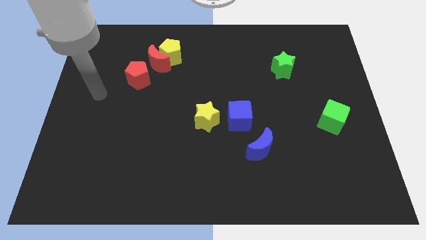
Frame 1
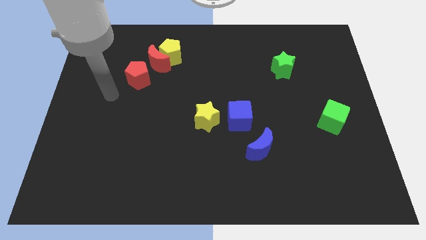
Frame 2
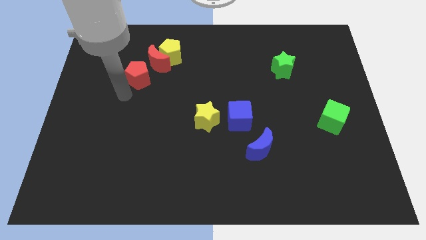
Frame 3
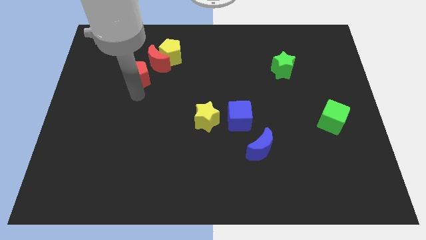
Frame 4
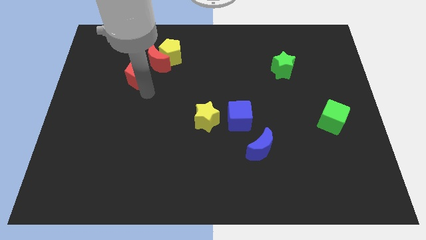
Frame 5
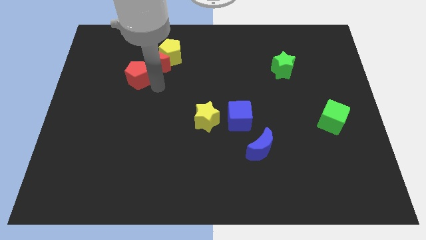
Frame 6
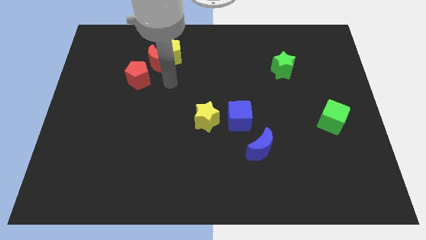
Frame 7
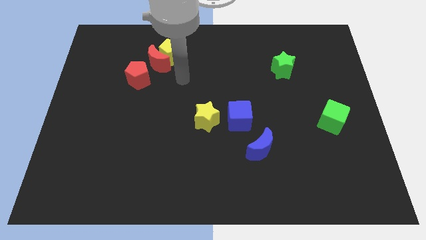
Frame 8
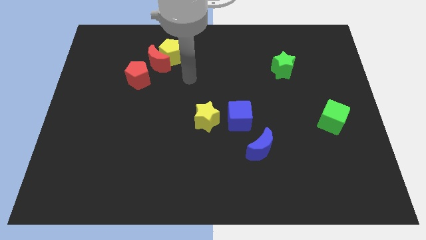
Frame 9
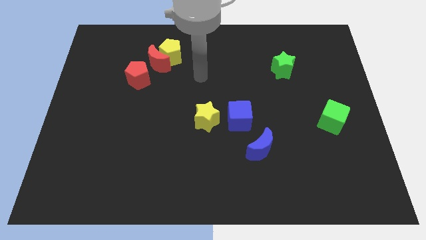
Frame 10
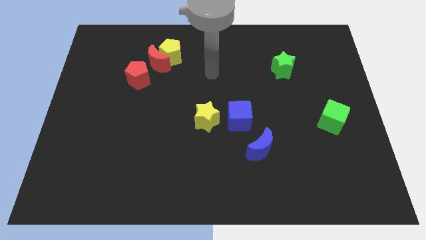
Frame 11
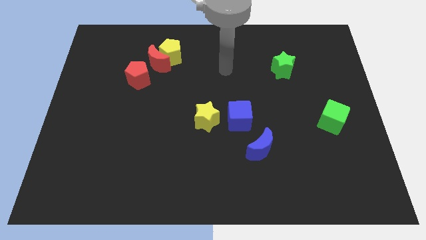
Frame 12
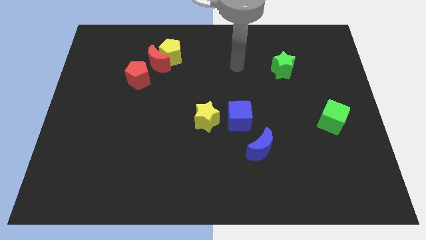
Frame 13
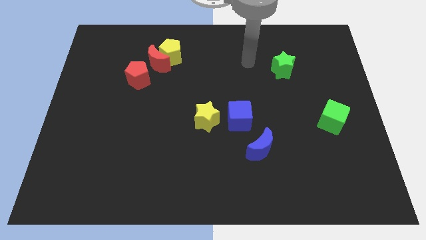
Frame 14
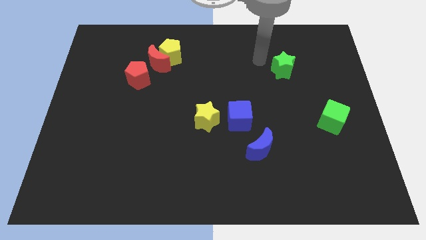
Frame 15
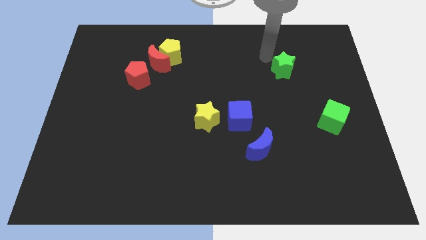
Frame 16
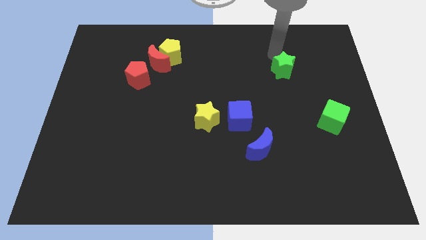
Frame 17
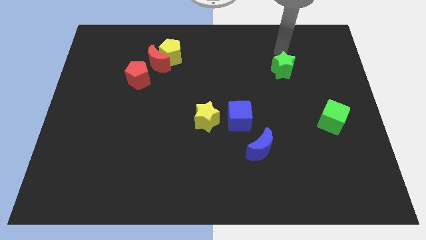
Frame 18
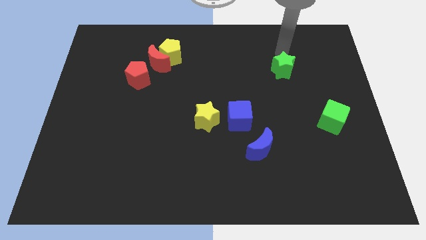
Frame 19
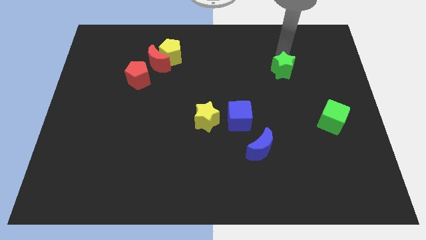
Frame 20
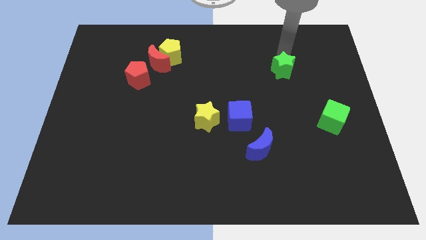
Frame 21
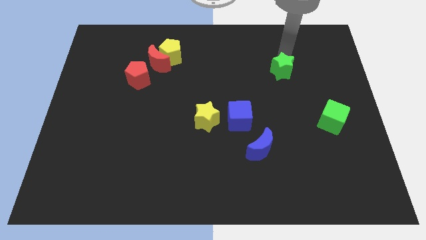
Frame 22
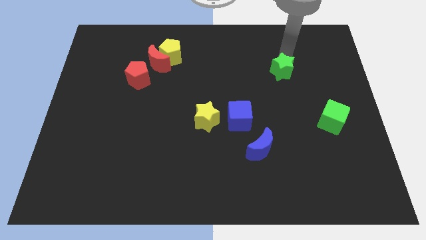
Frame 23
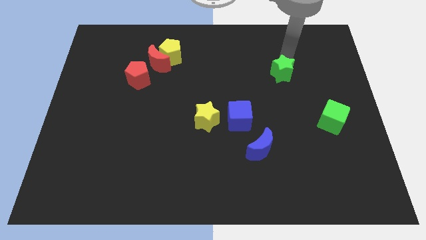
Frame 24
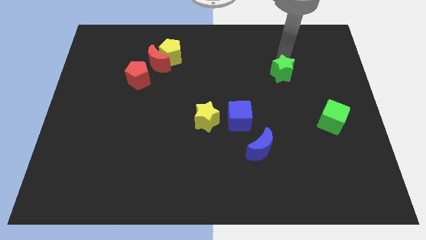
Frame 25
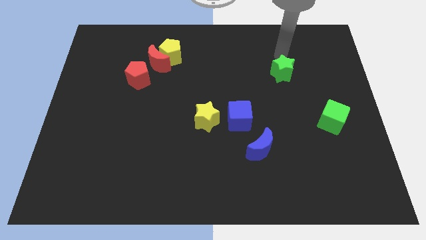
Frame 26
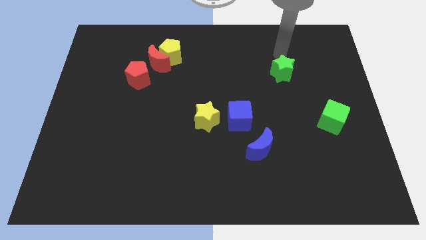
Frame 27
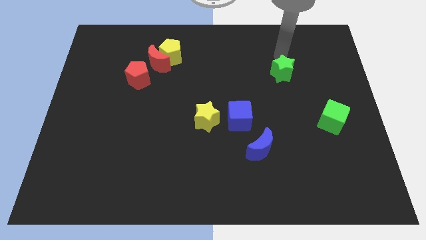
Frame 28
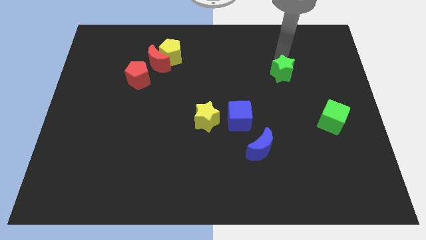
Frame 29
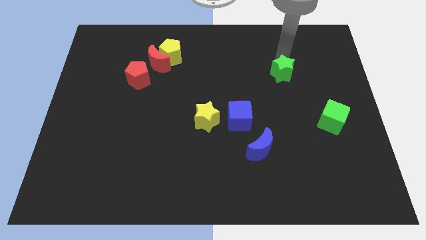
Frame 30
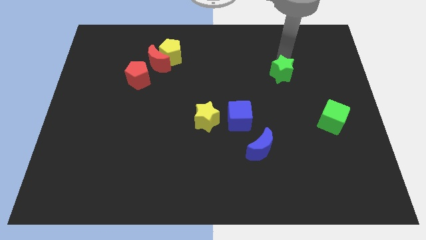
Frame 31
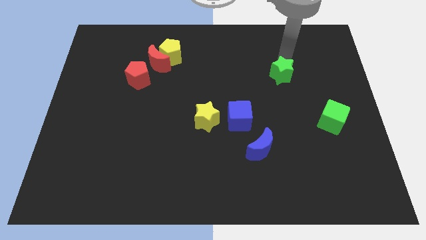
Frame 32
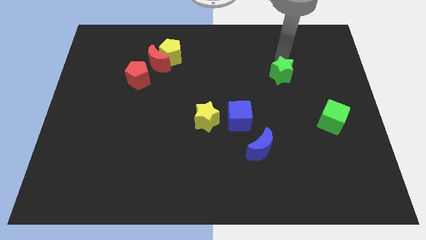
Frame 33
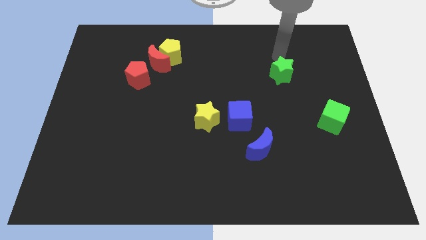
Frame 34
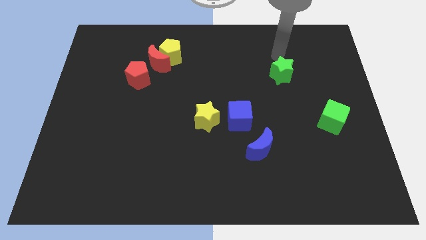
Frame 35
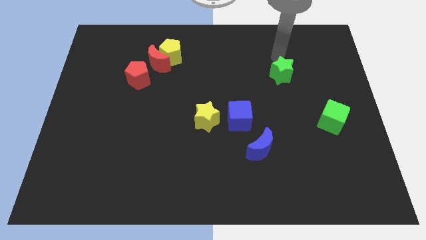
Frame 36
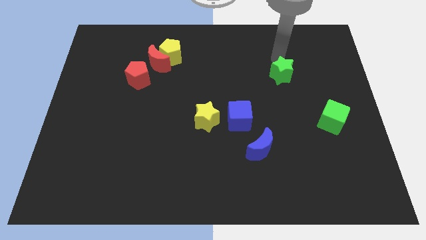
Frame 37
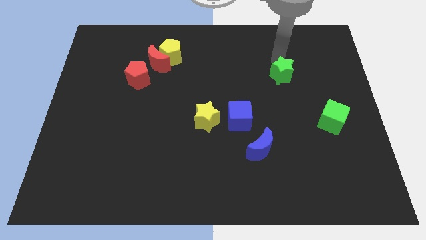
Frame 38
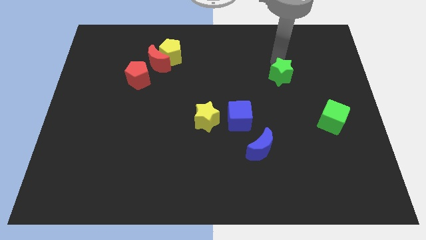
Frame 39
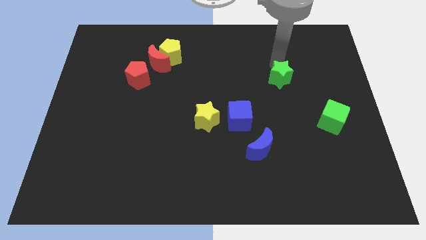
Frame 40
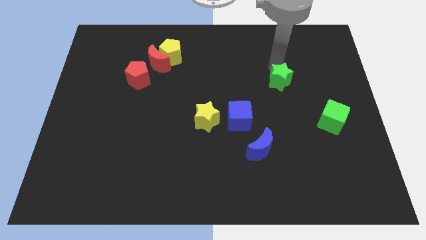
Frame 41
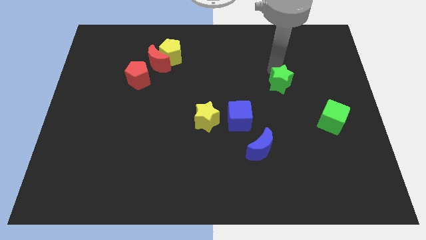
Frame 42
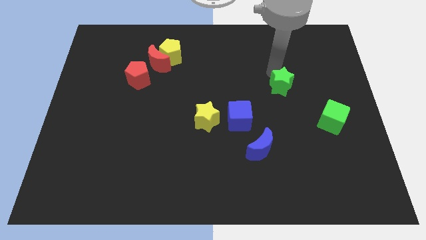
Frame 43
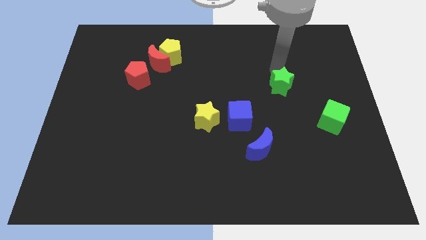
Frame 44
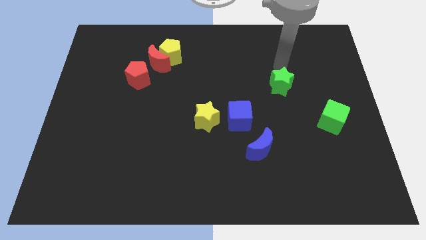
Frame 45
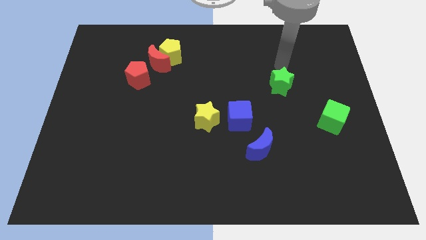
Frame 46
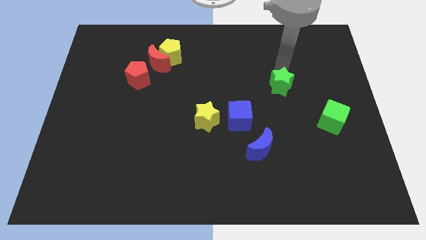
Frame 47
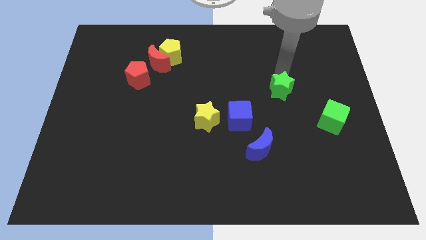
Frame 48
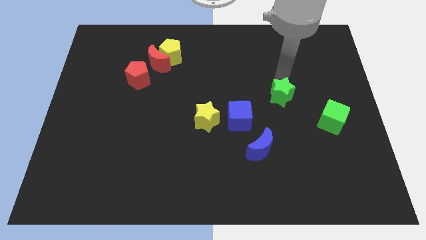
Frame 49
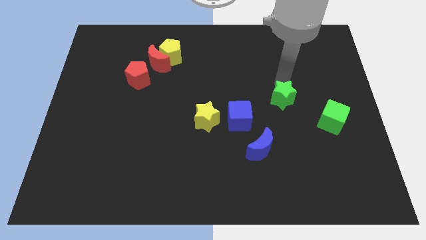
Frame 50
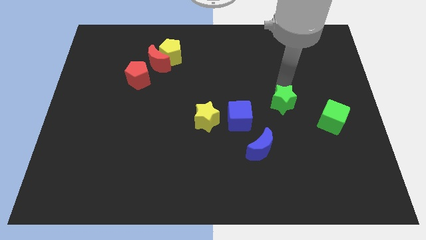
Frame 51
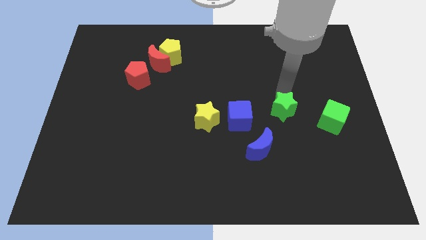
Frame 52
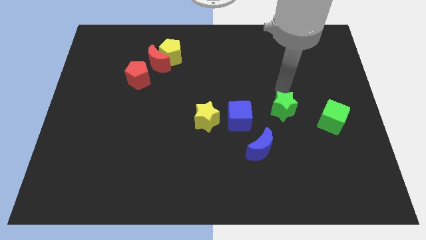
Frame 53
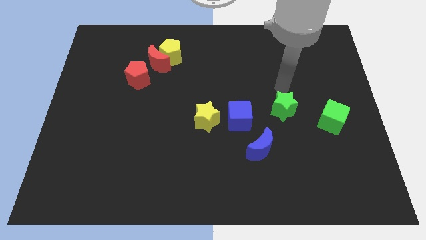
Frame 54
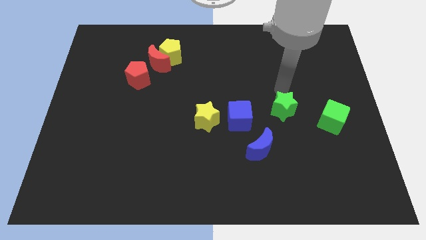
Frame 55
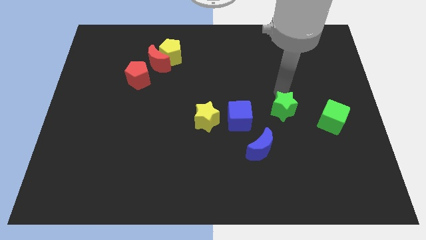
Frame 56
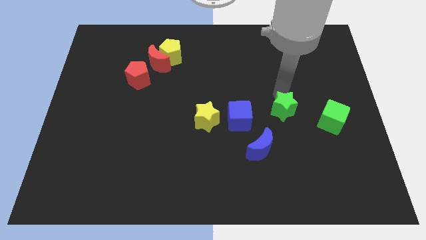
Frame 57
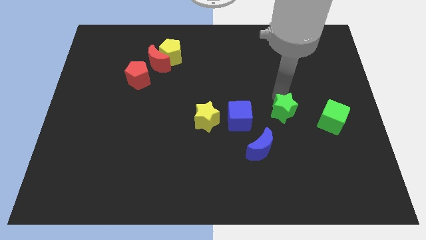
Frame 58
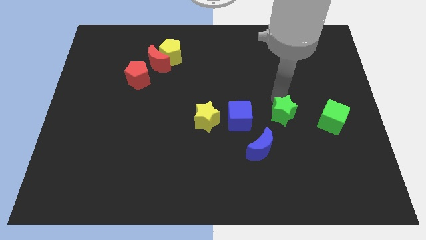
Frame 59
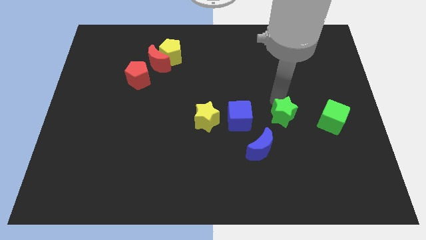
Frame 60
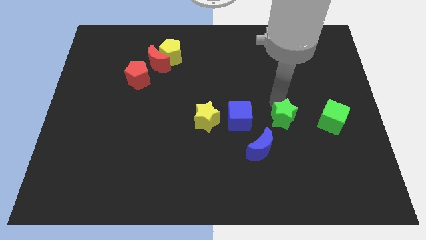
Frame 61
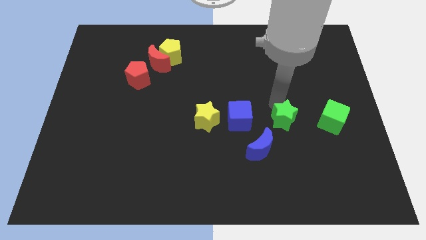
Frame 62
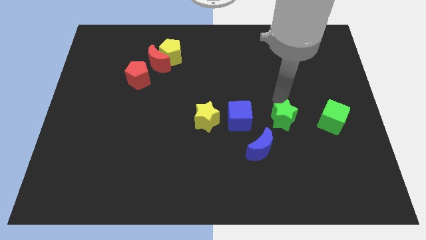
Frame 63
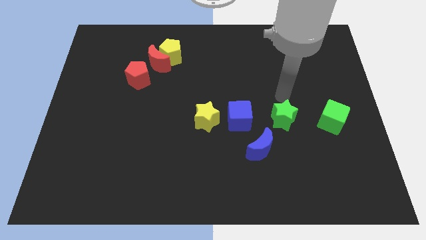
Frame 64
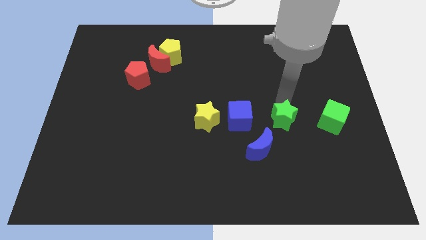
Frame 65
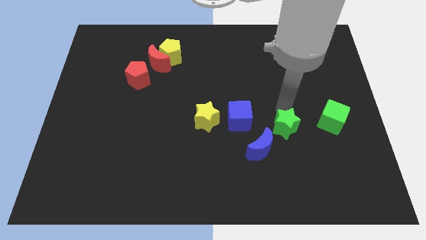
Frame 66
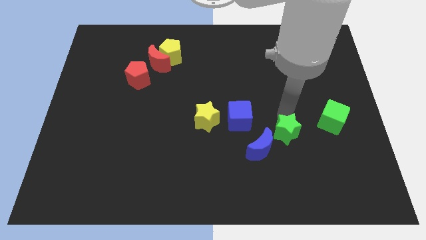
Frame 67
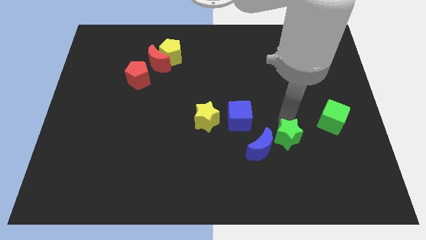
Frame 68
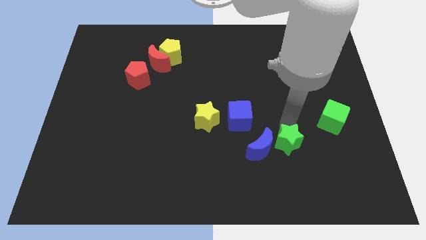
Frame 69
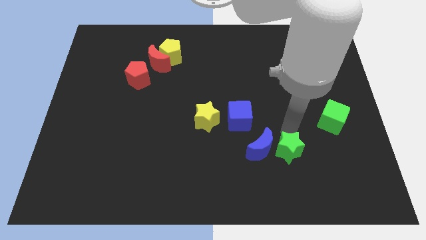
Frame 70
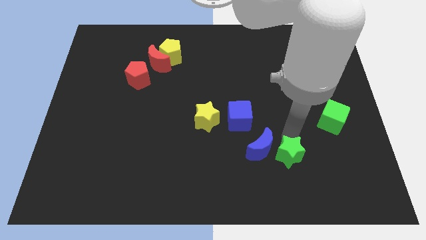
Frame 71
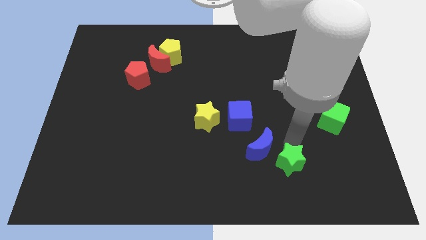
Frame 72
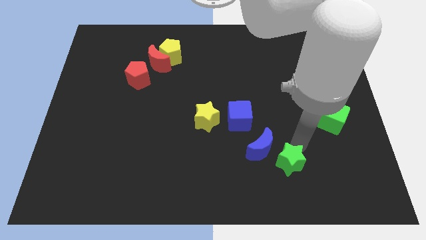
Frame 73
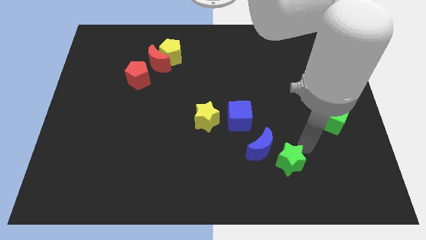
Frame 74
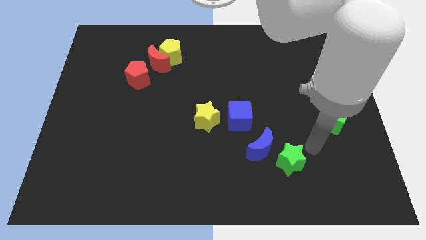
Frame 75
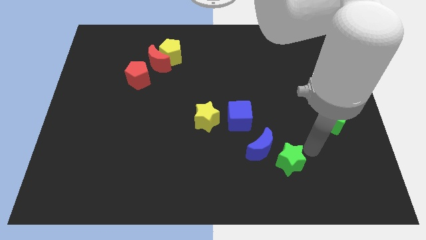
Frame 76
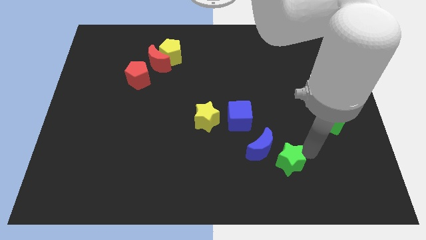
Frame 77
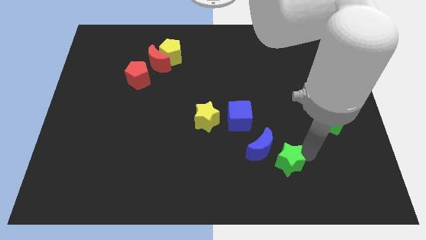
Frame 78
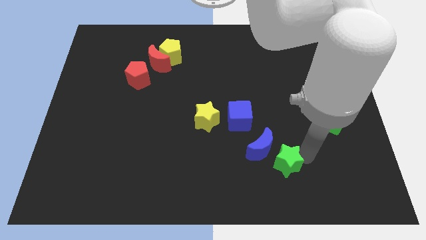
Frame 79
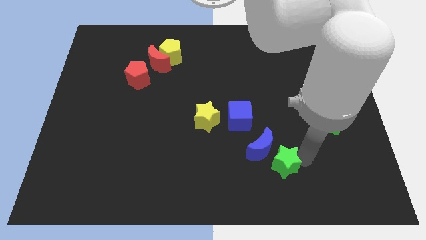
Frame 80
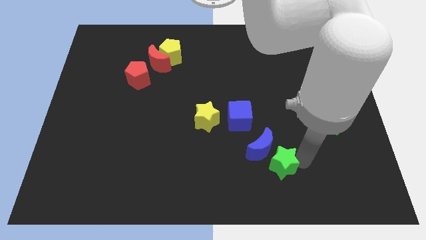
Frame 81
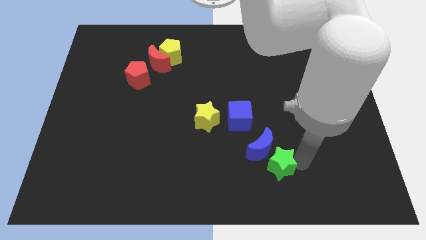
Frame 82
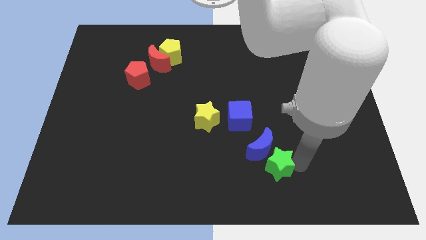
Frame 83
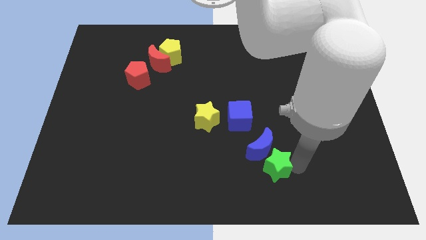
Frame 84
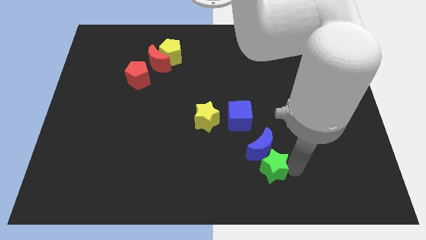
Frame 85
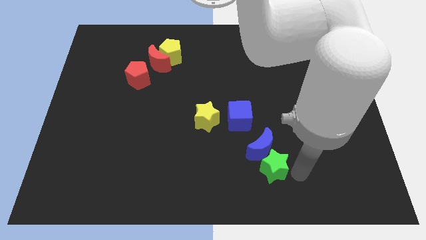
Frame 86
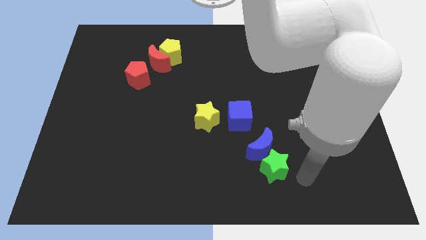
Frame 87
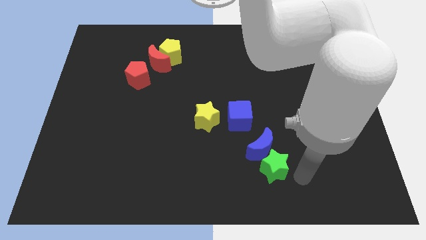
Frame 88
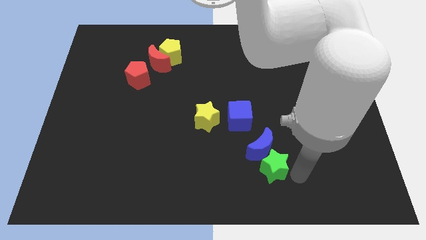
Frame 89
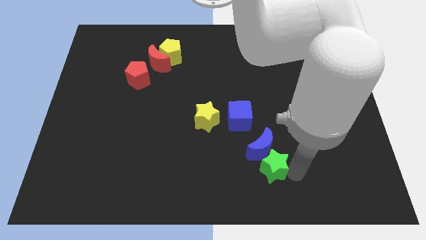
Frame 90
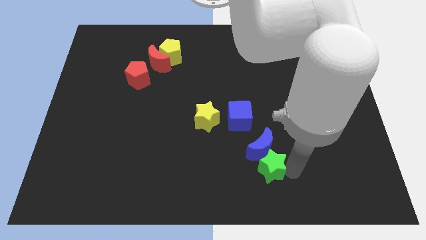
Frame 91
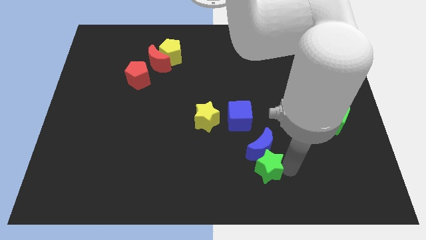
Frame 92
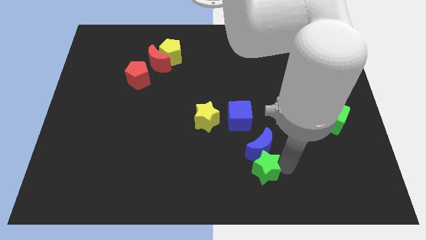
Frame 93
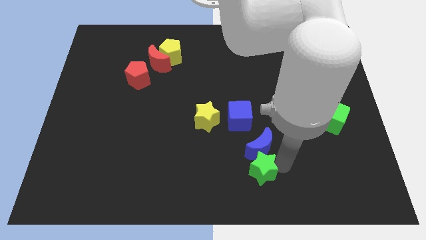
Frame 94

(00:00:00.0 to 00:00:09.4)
slide the green star to the bottom of the blue cube
